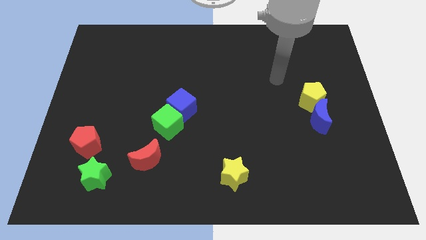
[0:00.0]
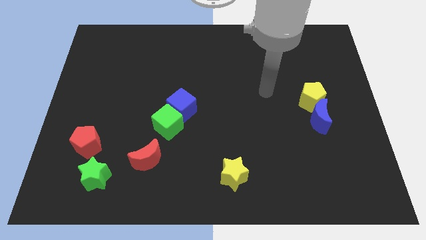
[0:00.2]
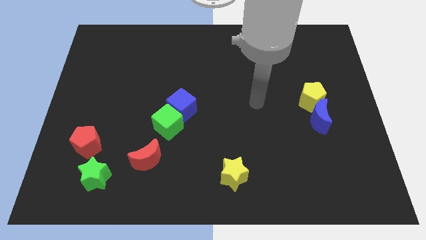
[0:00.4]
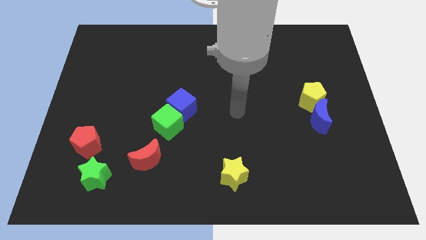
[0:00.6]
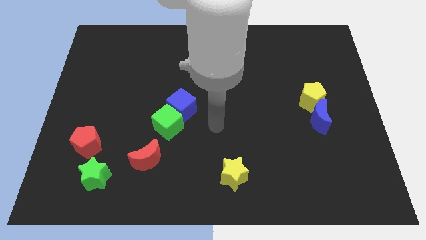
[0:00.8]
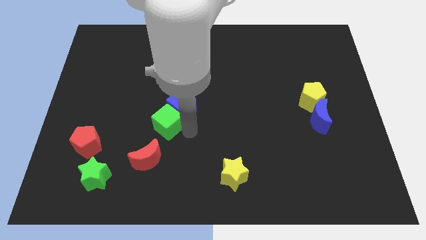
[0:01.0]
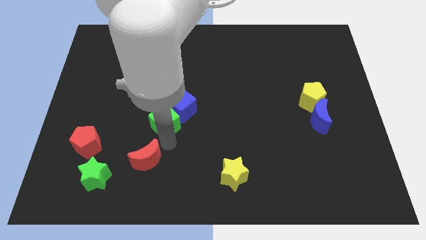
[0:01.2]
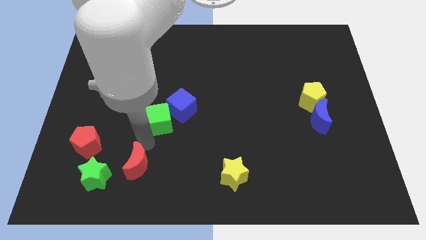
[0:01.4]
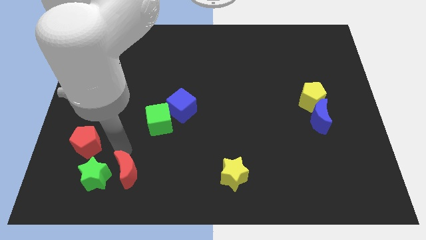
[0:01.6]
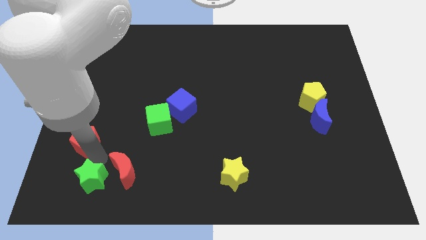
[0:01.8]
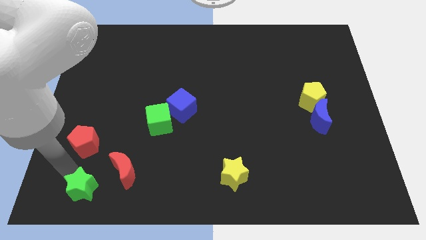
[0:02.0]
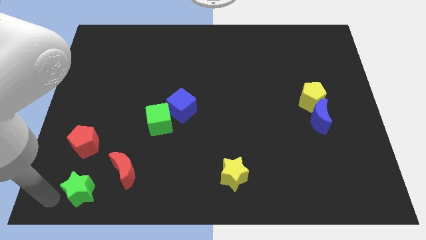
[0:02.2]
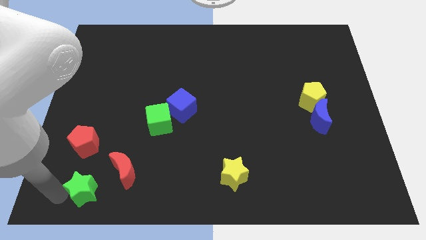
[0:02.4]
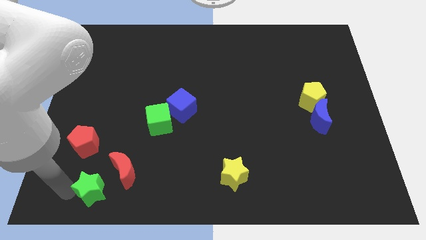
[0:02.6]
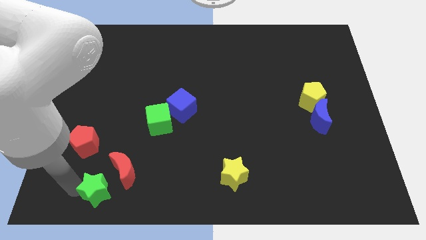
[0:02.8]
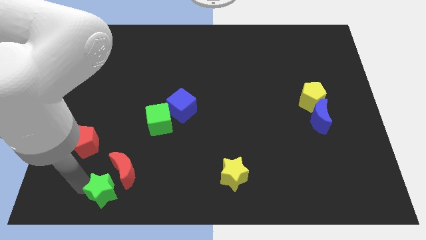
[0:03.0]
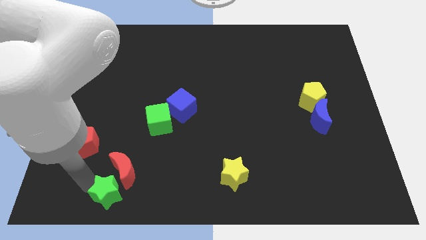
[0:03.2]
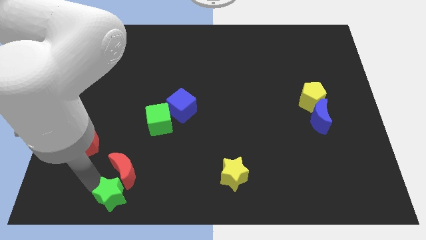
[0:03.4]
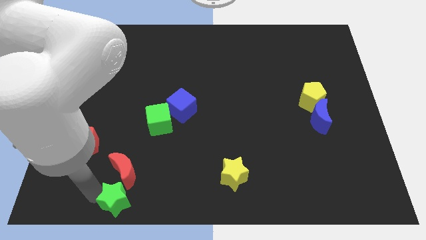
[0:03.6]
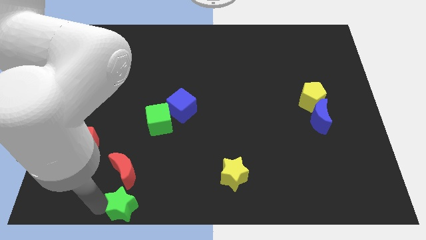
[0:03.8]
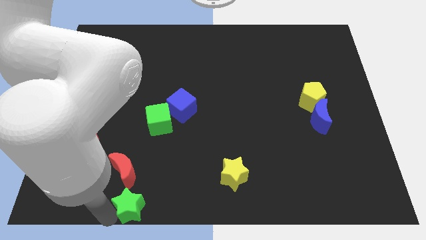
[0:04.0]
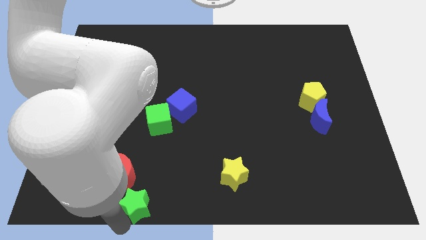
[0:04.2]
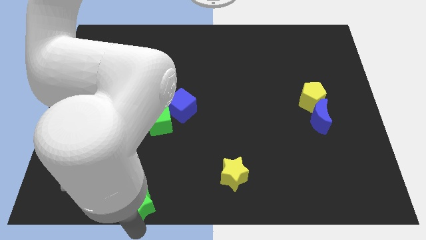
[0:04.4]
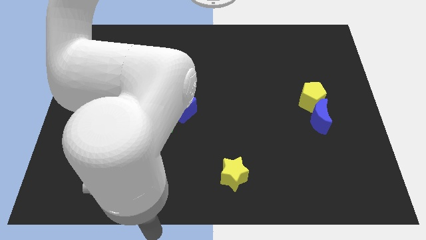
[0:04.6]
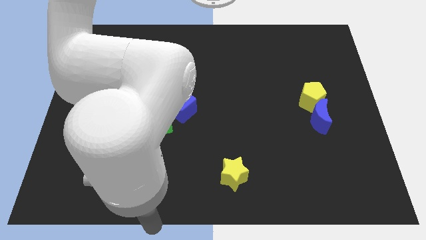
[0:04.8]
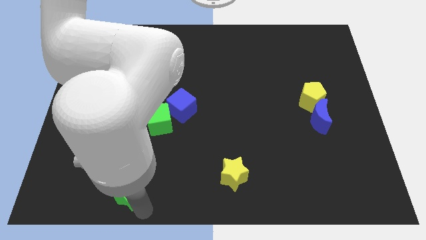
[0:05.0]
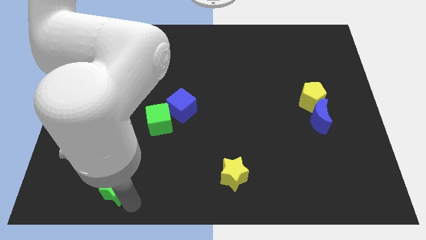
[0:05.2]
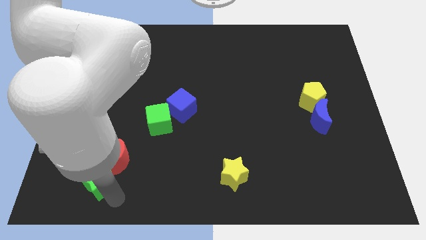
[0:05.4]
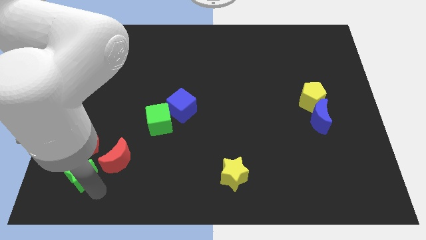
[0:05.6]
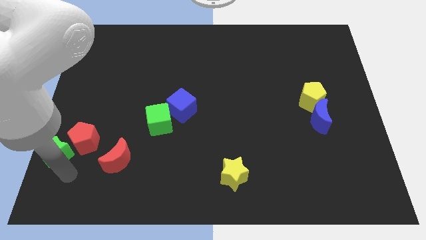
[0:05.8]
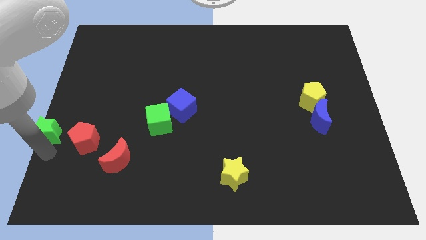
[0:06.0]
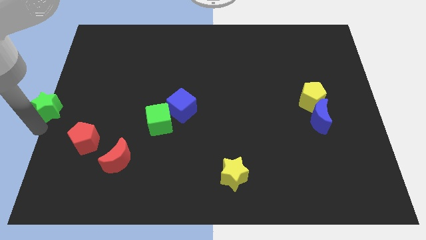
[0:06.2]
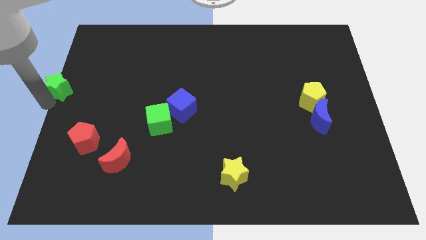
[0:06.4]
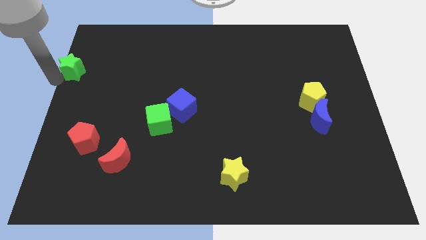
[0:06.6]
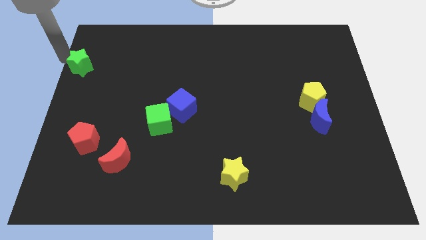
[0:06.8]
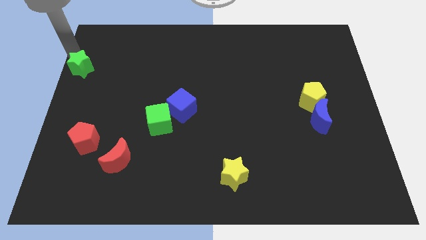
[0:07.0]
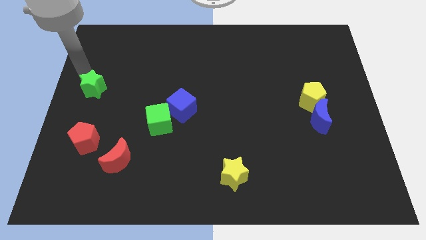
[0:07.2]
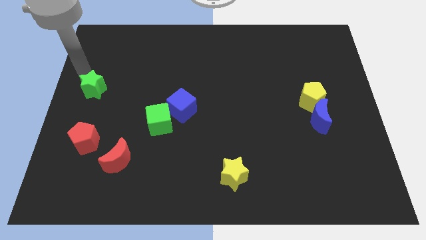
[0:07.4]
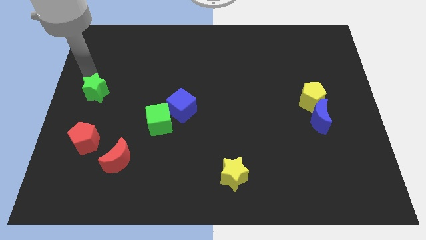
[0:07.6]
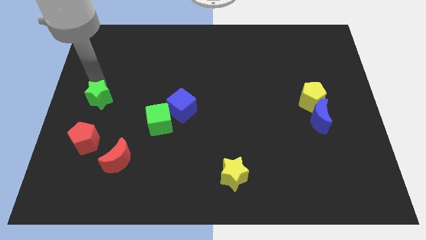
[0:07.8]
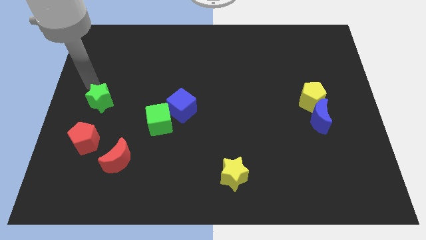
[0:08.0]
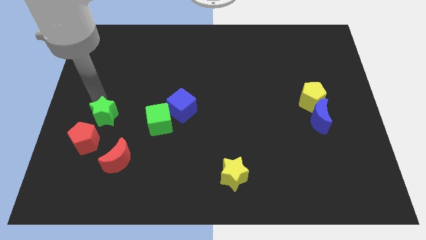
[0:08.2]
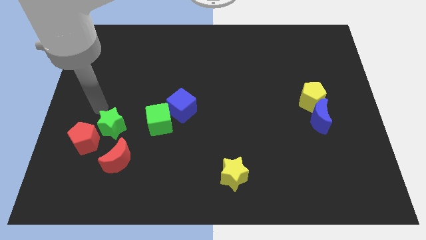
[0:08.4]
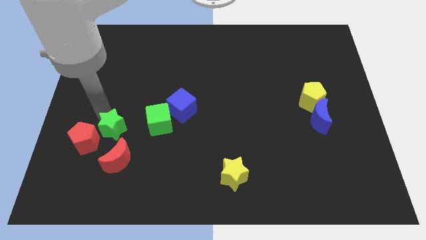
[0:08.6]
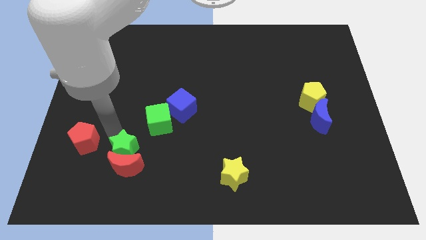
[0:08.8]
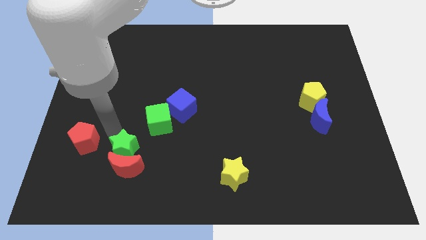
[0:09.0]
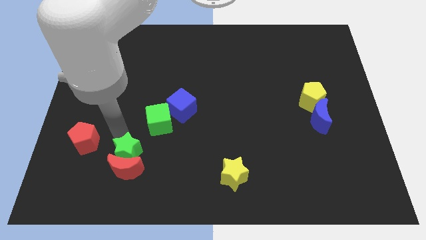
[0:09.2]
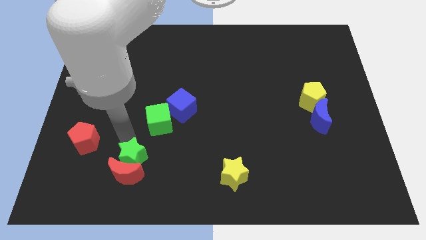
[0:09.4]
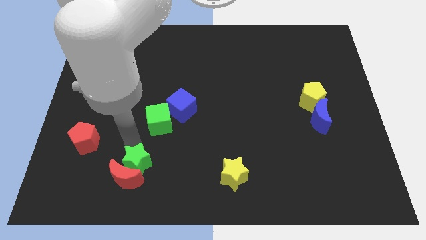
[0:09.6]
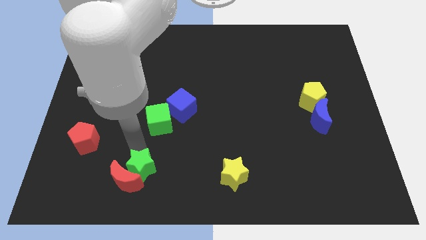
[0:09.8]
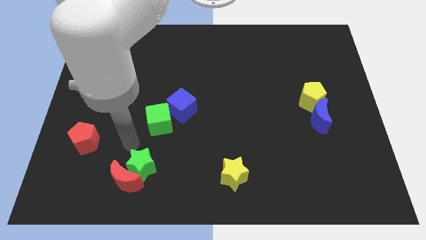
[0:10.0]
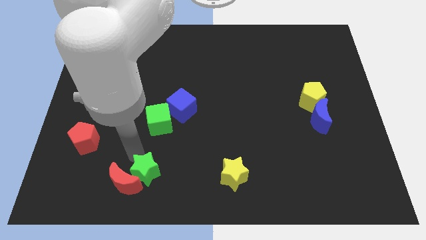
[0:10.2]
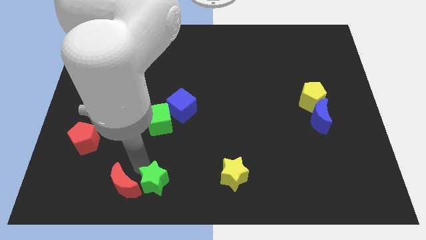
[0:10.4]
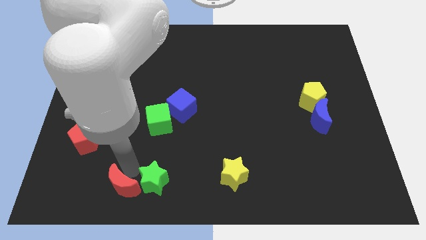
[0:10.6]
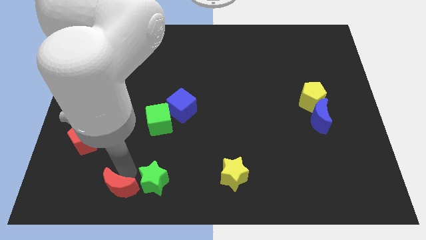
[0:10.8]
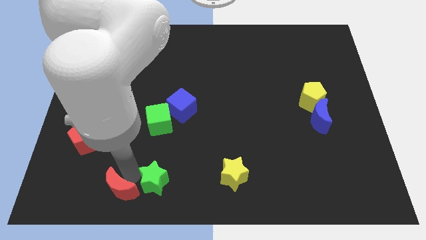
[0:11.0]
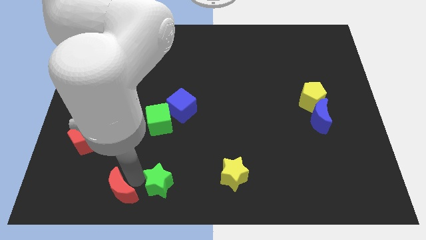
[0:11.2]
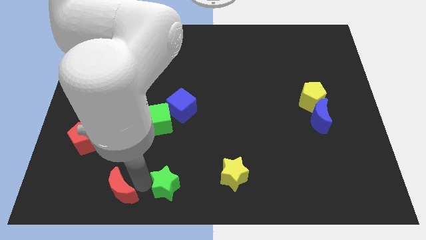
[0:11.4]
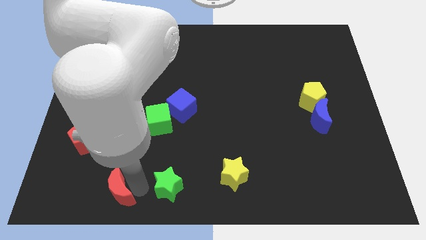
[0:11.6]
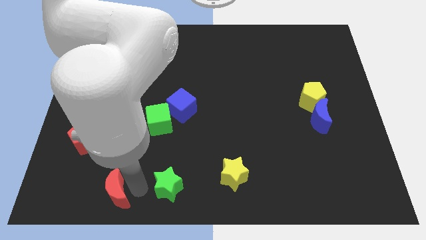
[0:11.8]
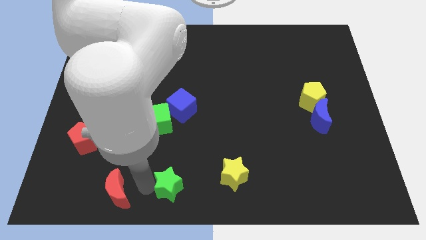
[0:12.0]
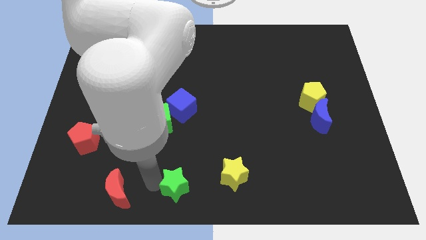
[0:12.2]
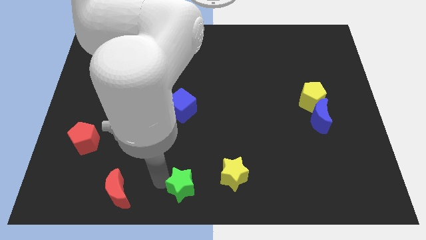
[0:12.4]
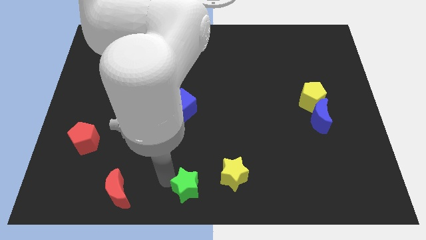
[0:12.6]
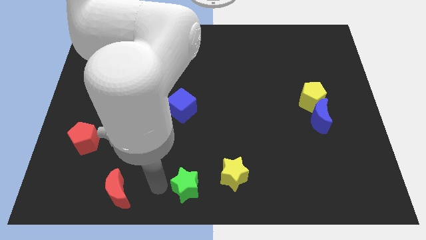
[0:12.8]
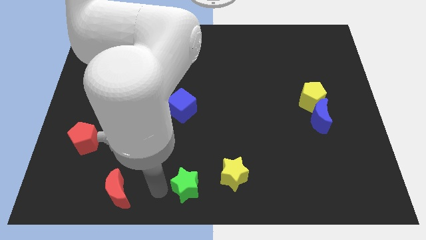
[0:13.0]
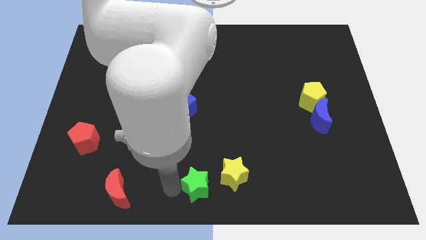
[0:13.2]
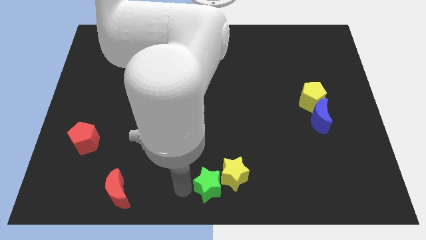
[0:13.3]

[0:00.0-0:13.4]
push the green star next to the yellow star

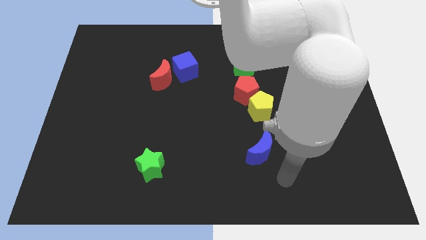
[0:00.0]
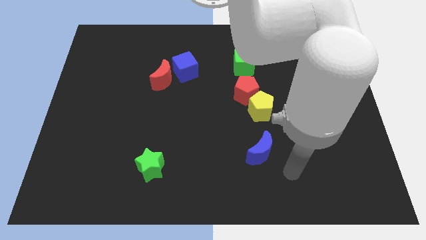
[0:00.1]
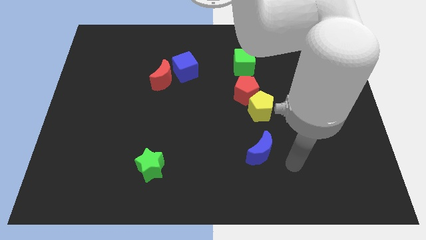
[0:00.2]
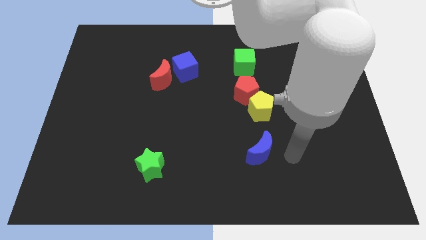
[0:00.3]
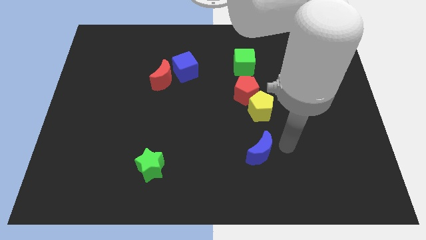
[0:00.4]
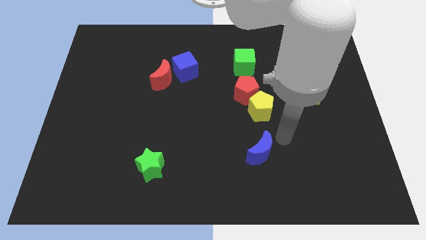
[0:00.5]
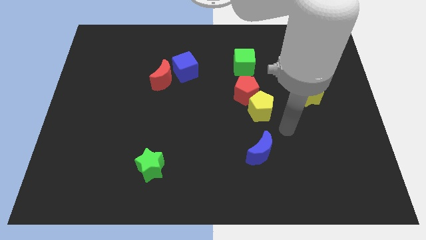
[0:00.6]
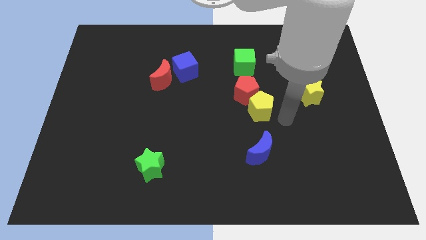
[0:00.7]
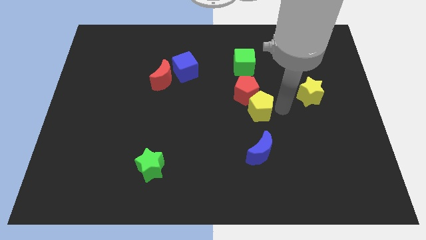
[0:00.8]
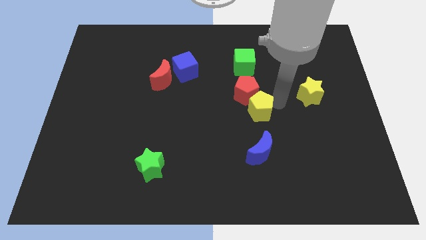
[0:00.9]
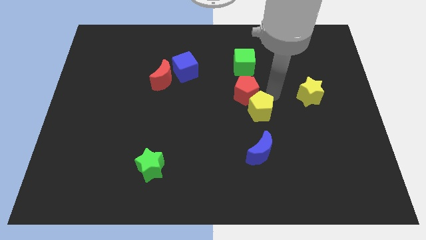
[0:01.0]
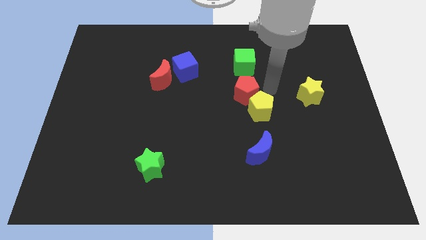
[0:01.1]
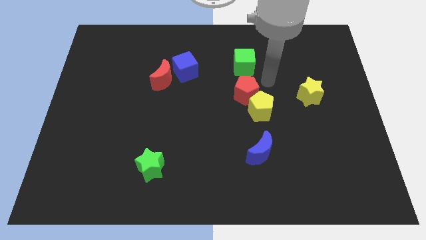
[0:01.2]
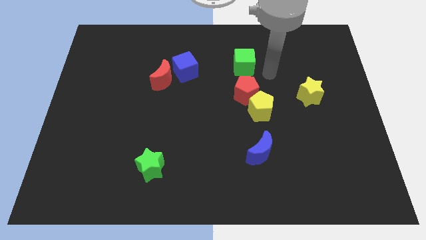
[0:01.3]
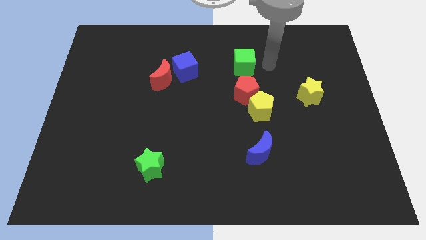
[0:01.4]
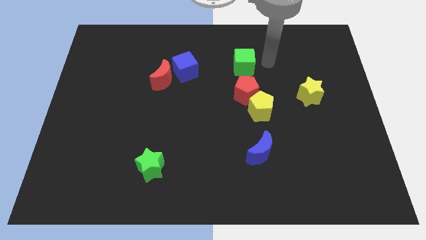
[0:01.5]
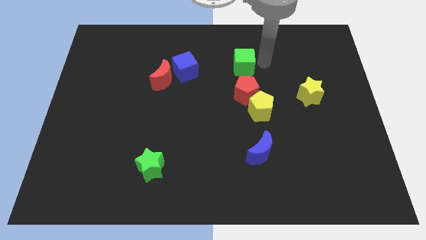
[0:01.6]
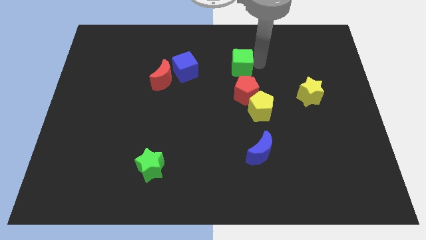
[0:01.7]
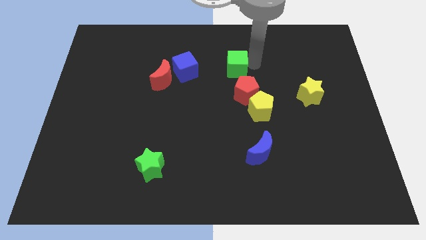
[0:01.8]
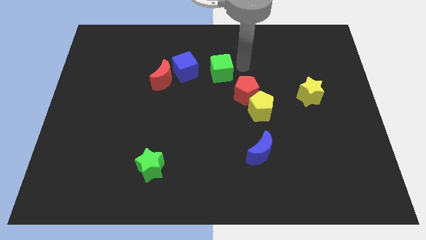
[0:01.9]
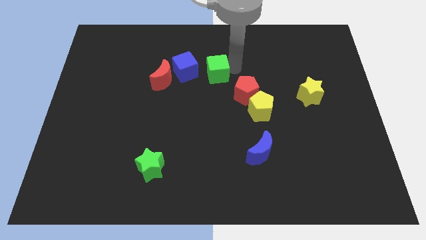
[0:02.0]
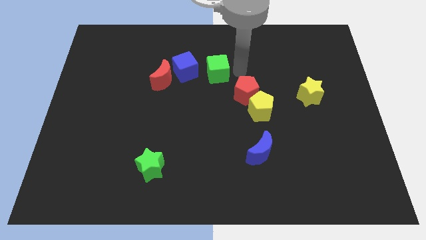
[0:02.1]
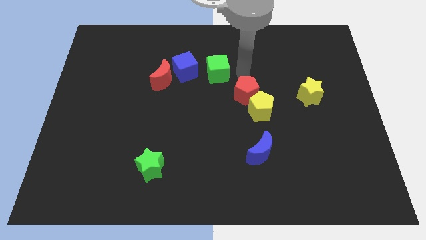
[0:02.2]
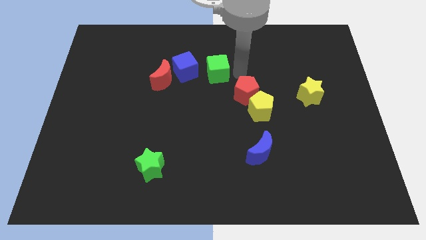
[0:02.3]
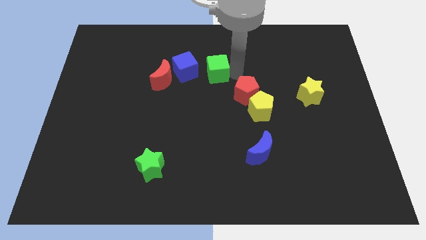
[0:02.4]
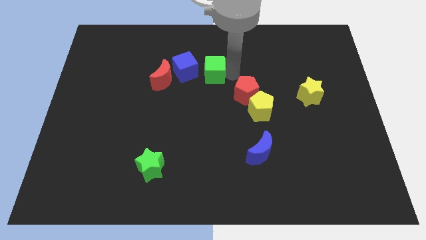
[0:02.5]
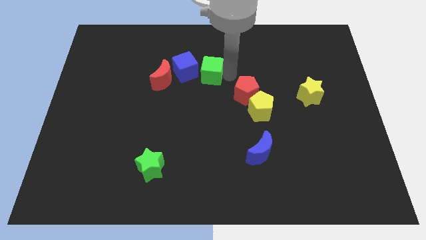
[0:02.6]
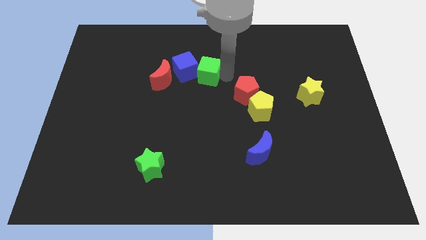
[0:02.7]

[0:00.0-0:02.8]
move the green cube towards the blue cube
